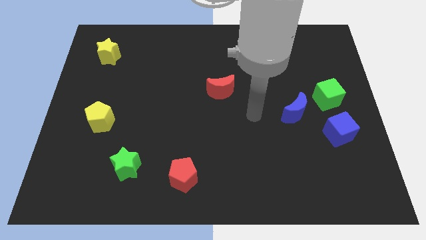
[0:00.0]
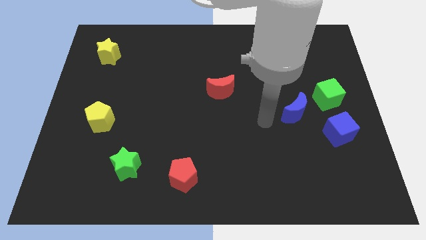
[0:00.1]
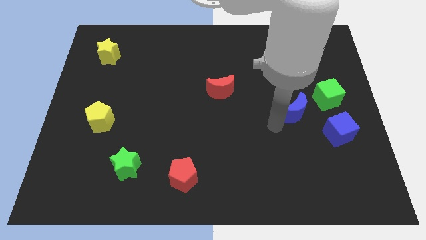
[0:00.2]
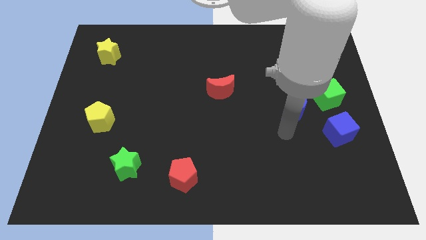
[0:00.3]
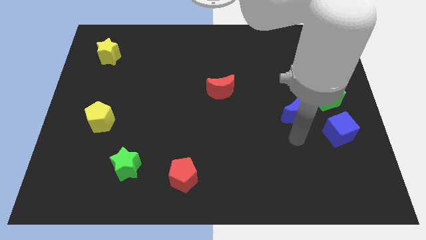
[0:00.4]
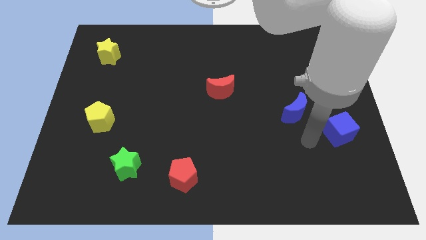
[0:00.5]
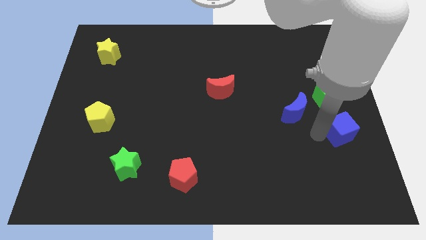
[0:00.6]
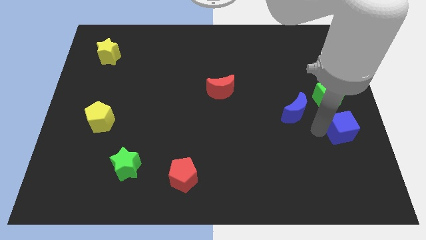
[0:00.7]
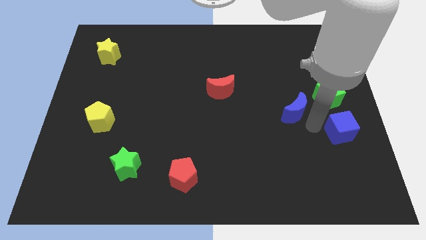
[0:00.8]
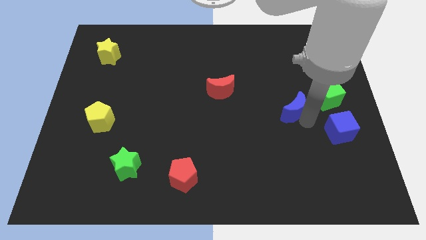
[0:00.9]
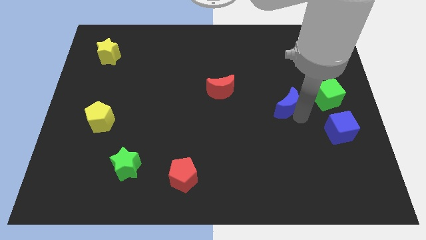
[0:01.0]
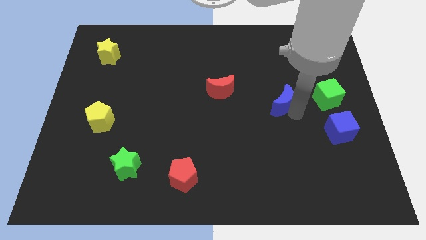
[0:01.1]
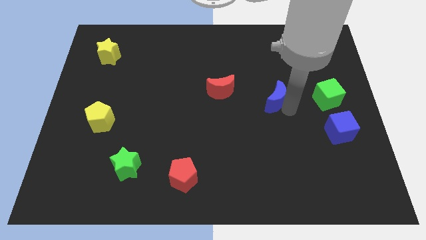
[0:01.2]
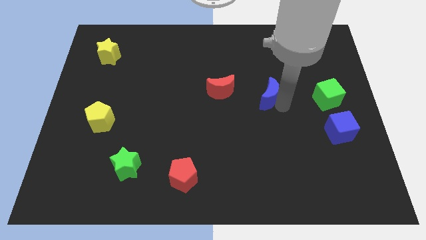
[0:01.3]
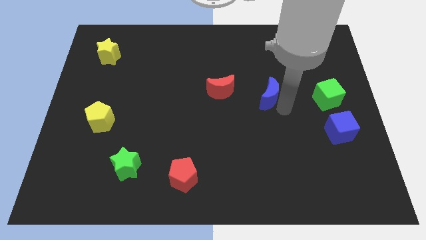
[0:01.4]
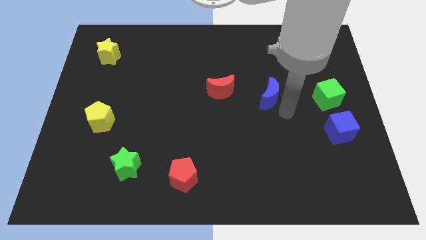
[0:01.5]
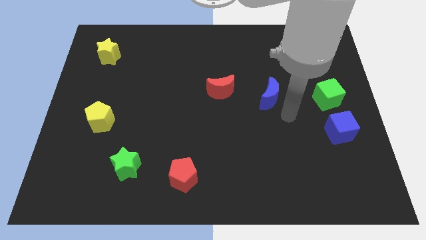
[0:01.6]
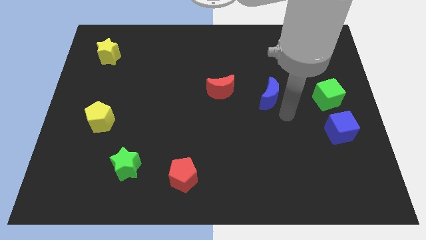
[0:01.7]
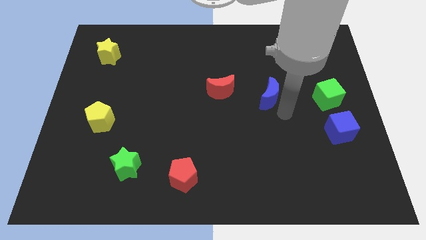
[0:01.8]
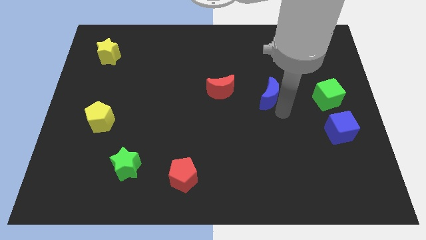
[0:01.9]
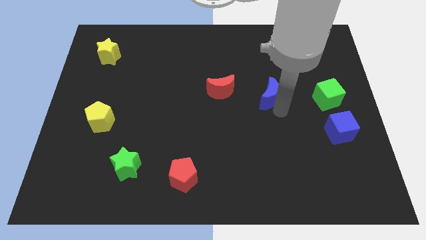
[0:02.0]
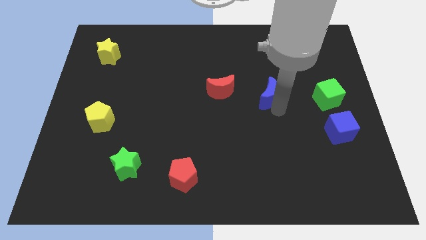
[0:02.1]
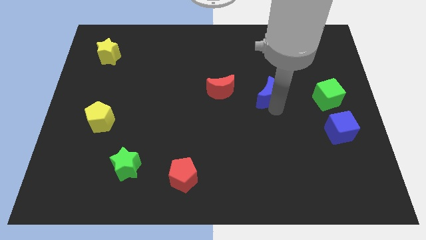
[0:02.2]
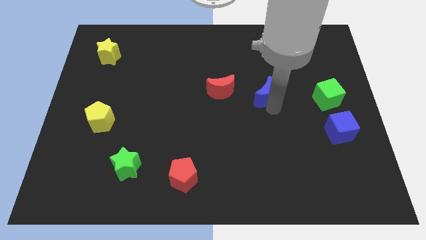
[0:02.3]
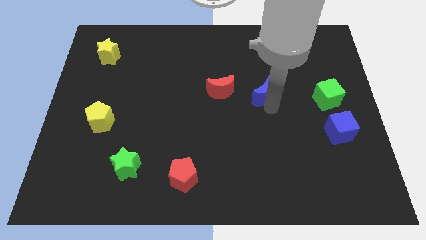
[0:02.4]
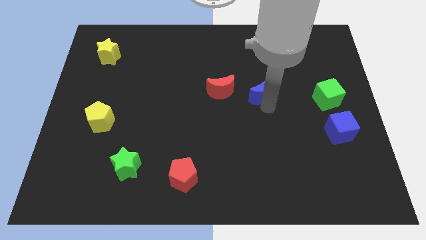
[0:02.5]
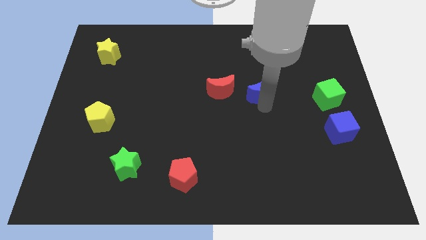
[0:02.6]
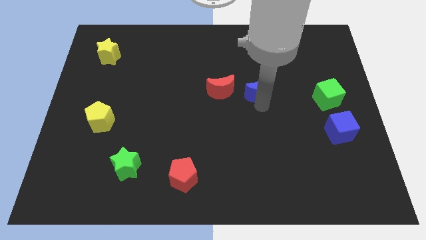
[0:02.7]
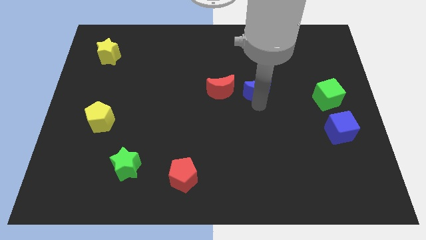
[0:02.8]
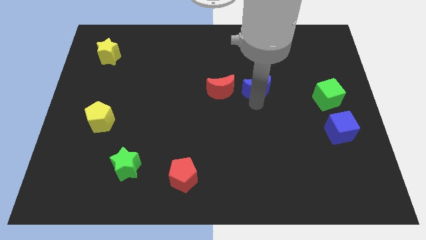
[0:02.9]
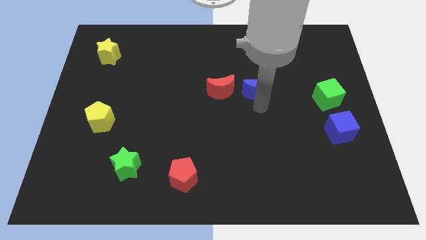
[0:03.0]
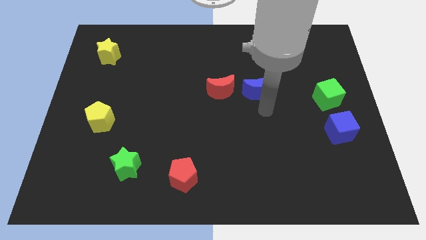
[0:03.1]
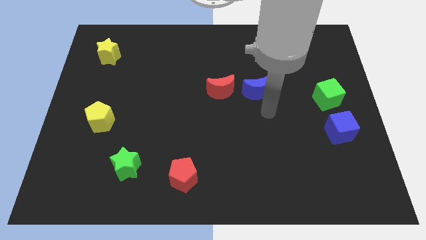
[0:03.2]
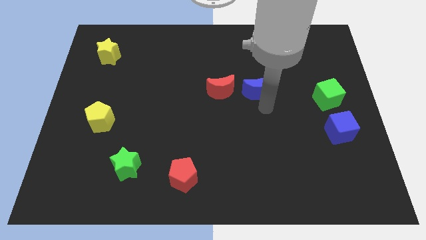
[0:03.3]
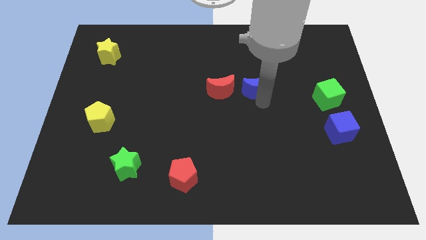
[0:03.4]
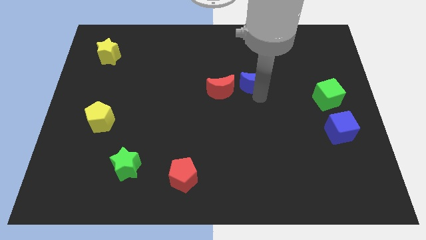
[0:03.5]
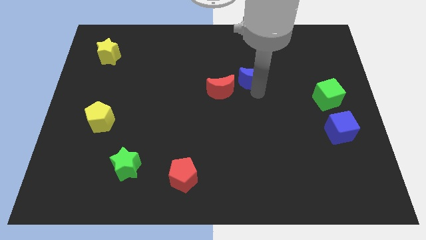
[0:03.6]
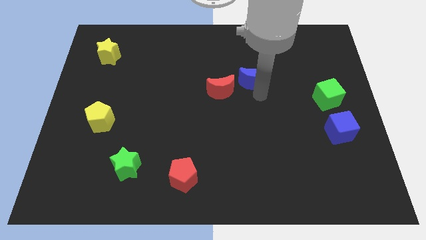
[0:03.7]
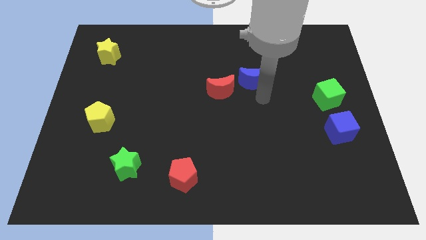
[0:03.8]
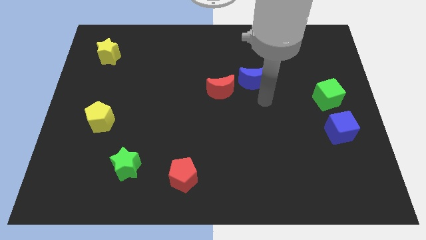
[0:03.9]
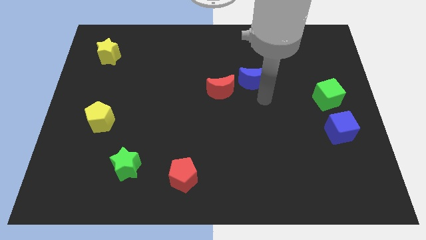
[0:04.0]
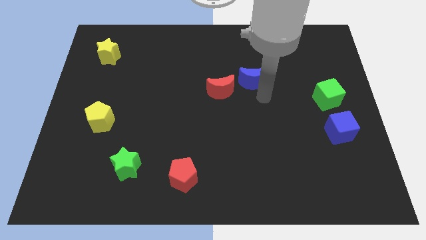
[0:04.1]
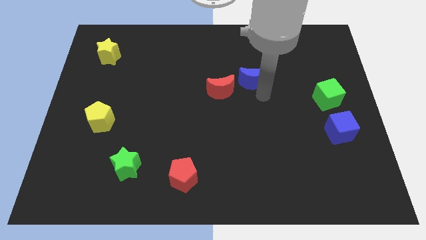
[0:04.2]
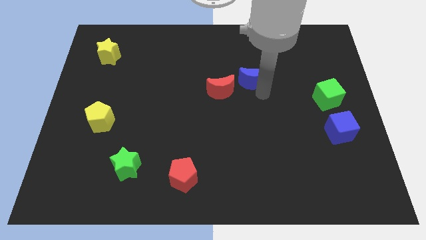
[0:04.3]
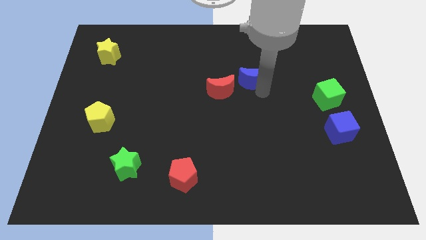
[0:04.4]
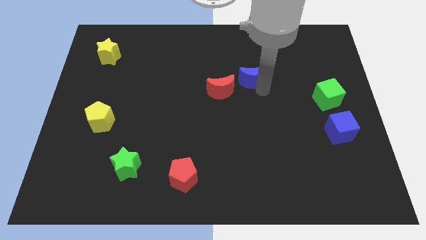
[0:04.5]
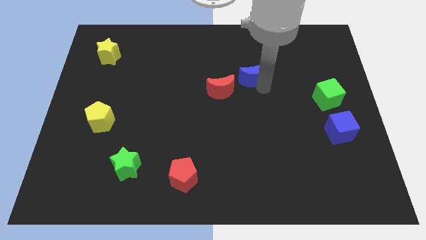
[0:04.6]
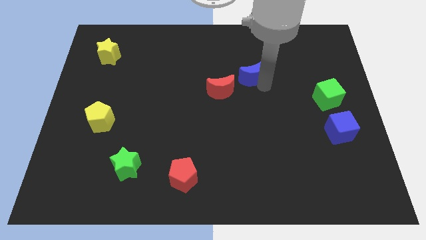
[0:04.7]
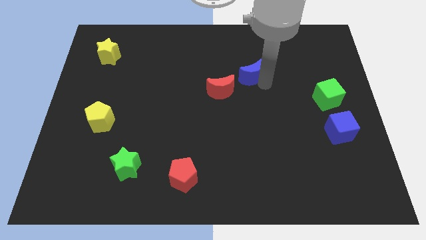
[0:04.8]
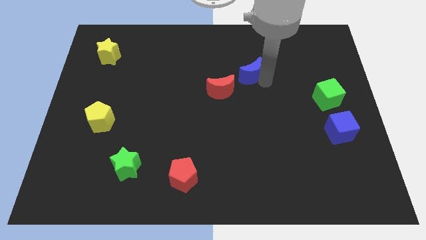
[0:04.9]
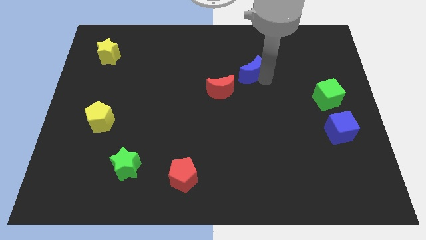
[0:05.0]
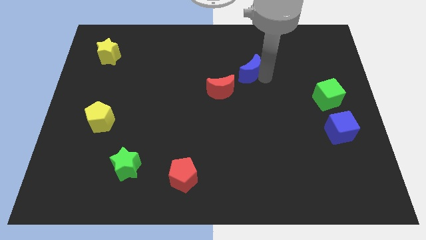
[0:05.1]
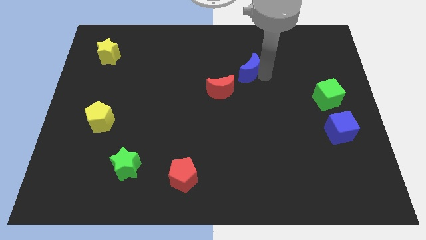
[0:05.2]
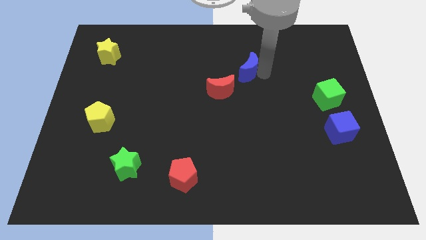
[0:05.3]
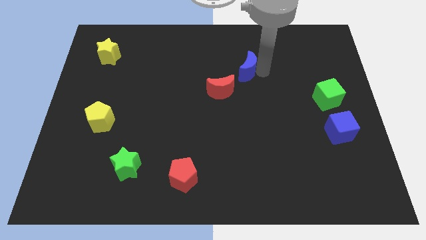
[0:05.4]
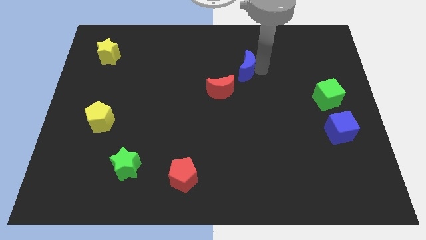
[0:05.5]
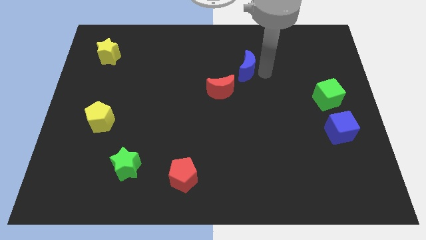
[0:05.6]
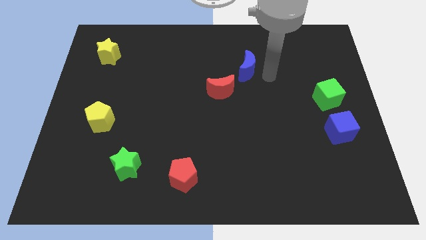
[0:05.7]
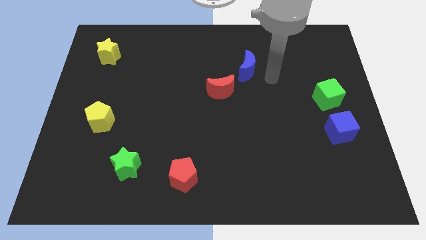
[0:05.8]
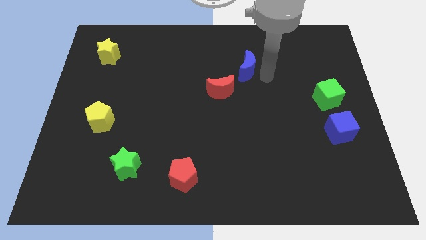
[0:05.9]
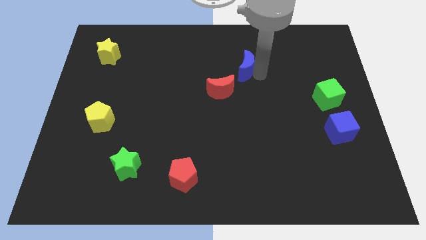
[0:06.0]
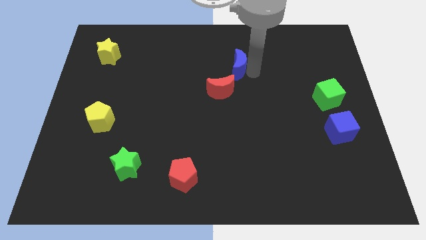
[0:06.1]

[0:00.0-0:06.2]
slide the blue moon above the red moon

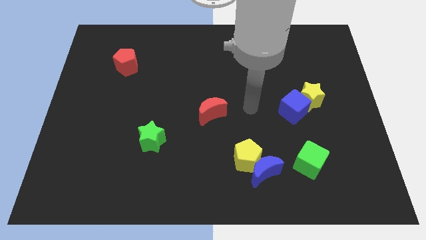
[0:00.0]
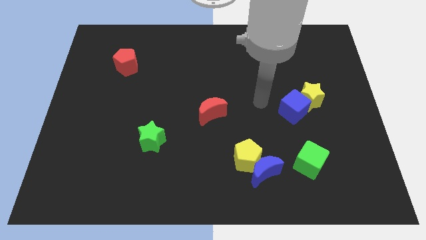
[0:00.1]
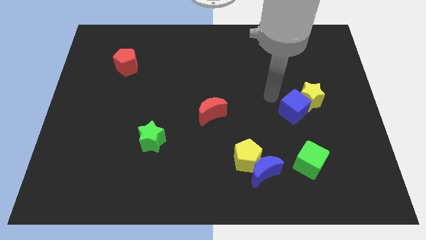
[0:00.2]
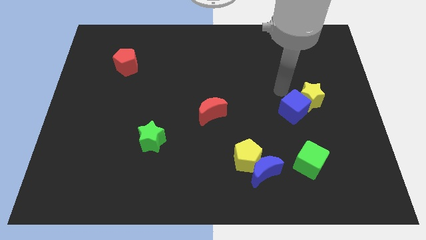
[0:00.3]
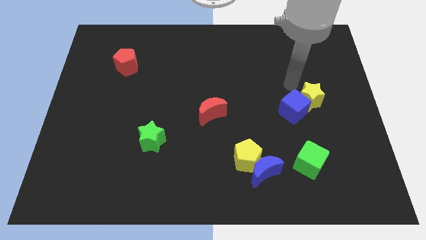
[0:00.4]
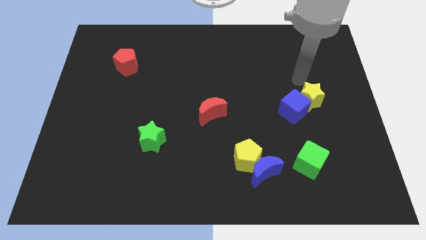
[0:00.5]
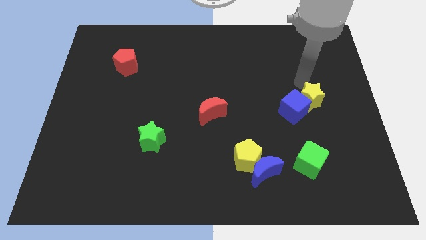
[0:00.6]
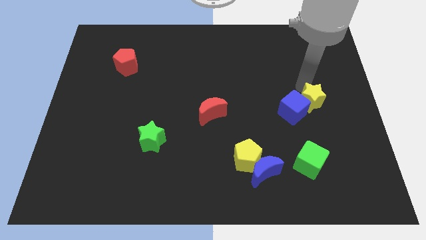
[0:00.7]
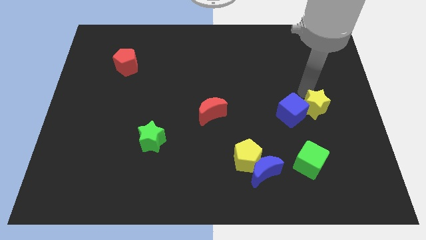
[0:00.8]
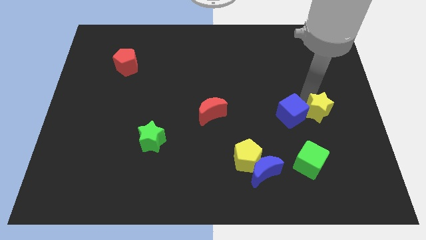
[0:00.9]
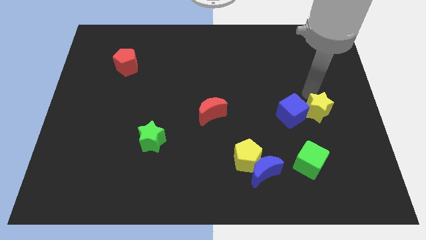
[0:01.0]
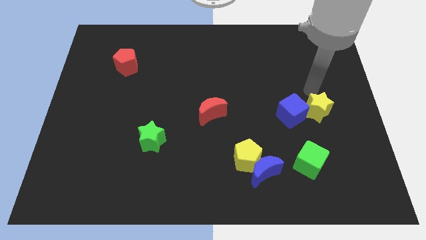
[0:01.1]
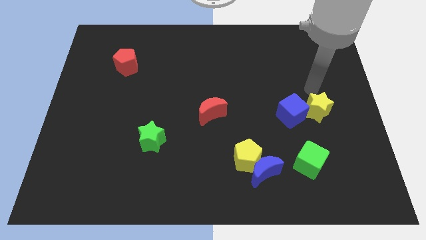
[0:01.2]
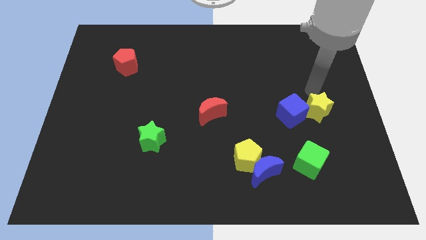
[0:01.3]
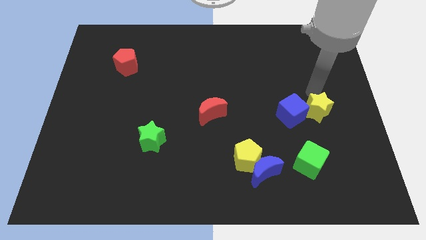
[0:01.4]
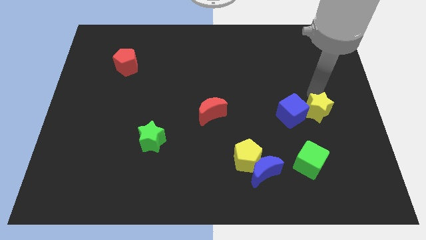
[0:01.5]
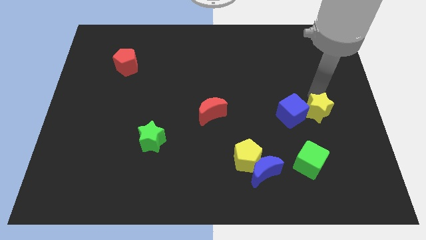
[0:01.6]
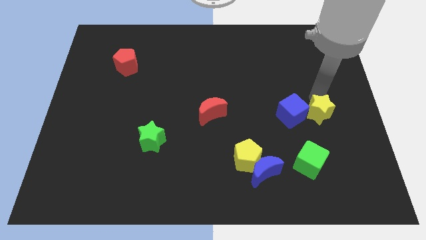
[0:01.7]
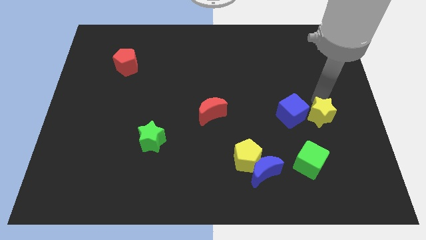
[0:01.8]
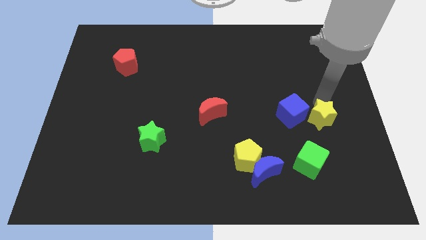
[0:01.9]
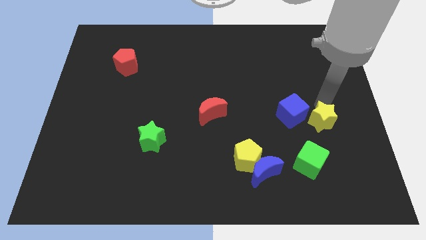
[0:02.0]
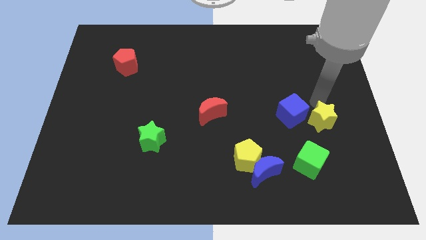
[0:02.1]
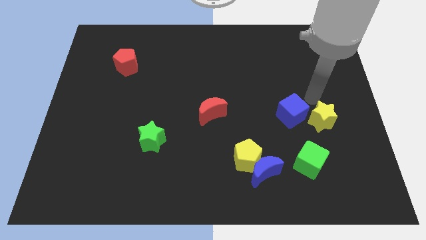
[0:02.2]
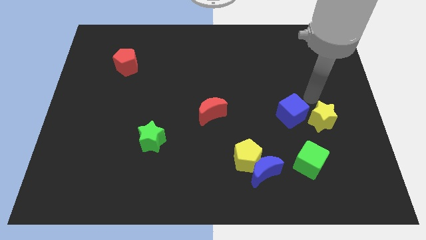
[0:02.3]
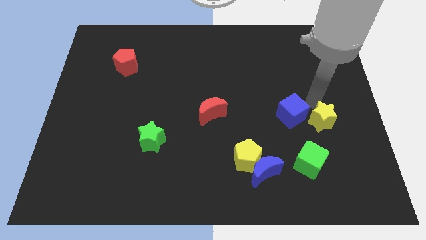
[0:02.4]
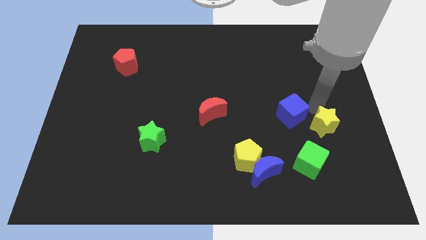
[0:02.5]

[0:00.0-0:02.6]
move the yellow star to the top right side of the green cube

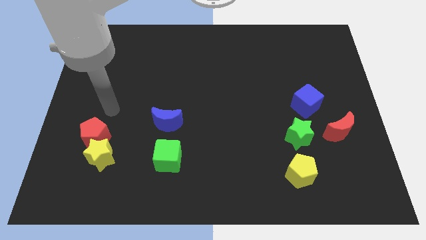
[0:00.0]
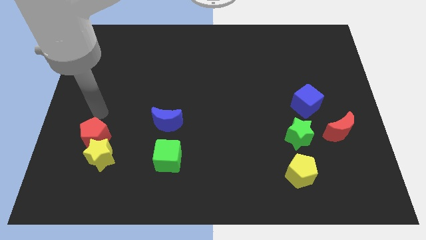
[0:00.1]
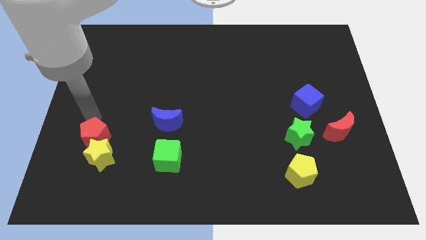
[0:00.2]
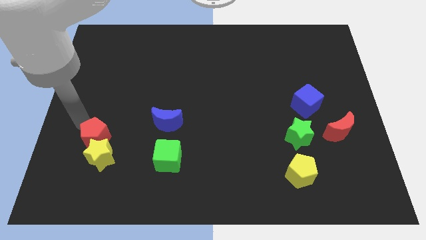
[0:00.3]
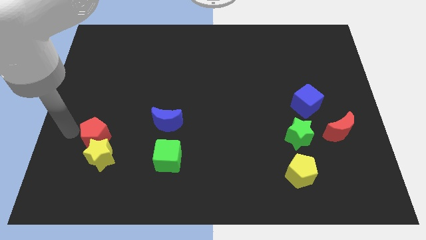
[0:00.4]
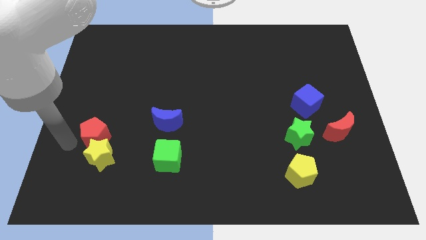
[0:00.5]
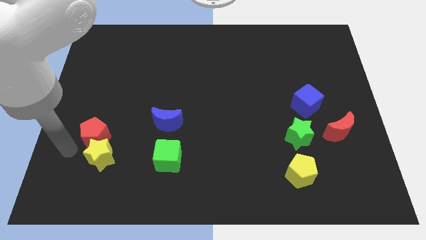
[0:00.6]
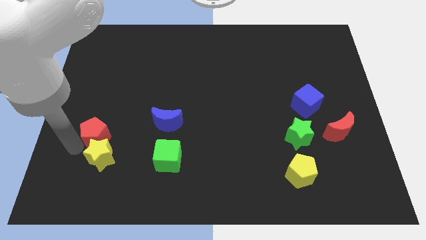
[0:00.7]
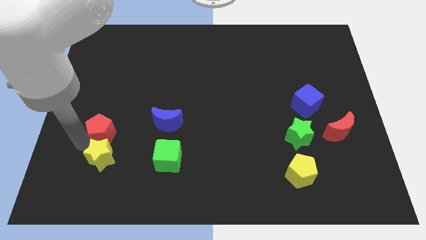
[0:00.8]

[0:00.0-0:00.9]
push the red pentagon left of the blue moon
